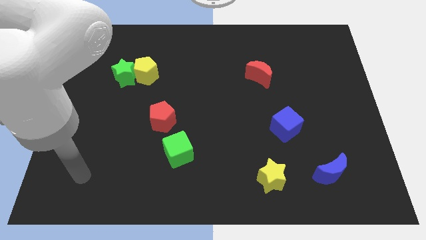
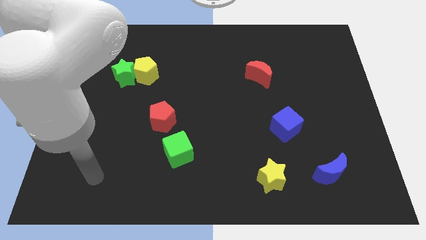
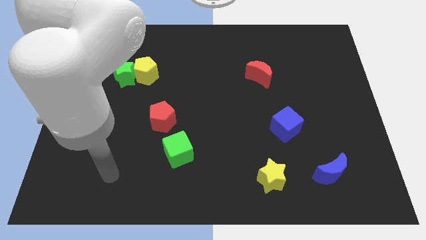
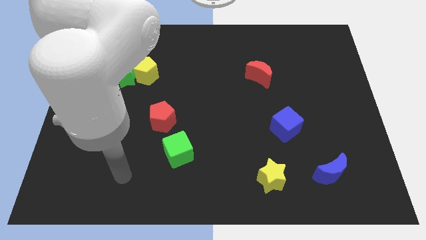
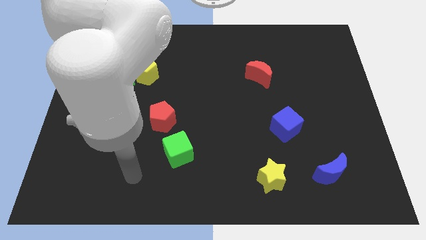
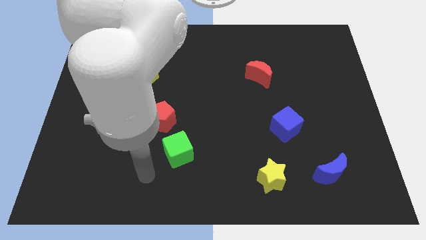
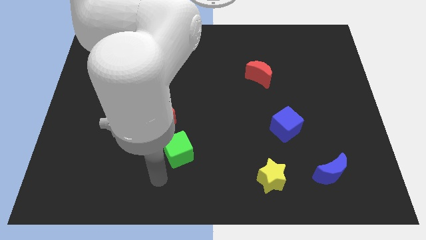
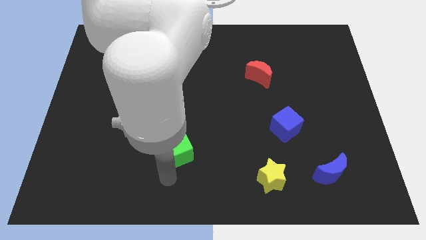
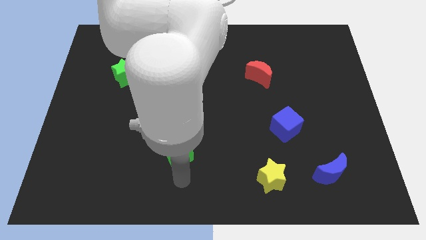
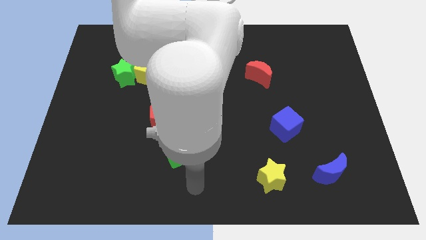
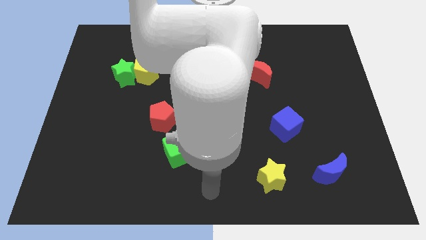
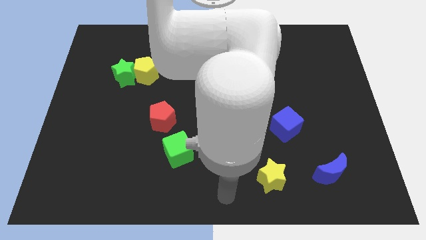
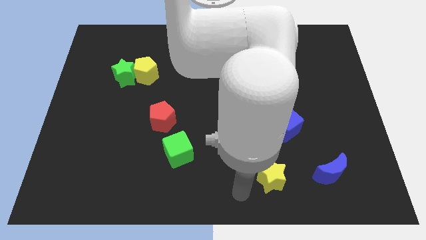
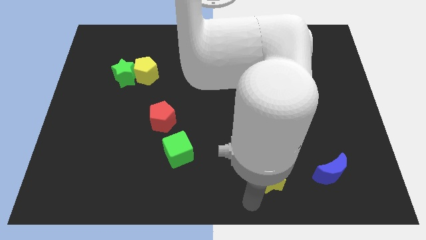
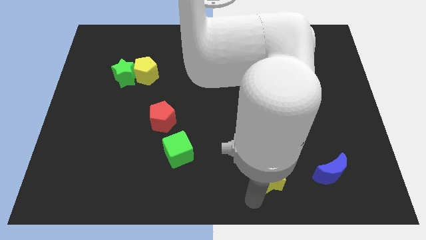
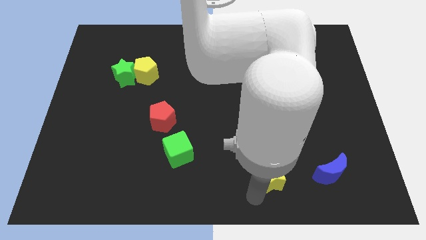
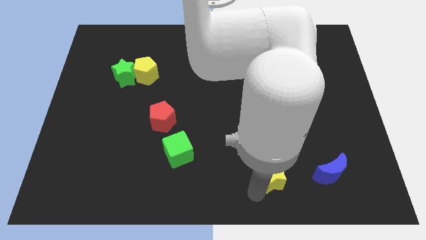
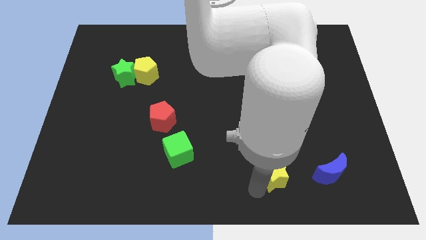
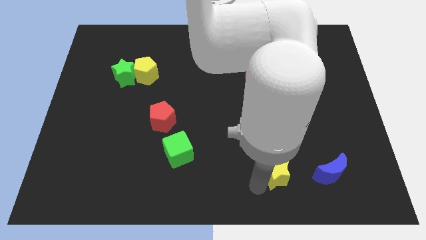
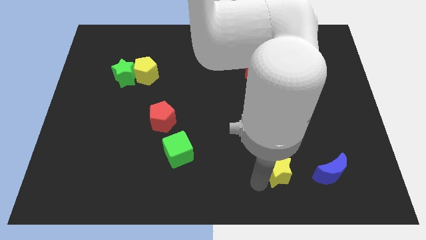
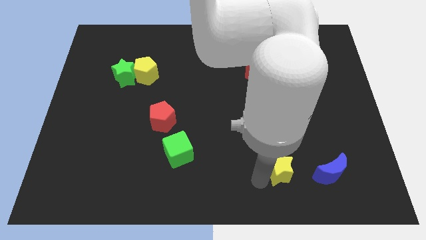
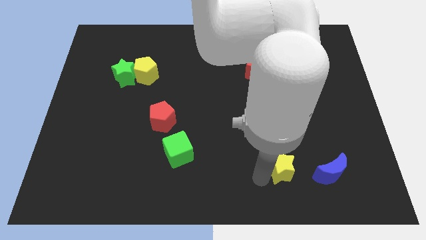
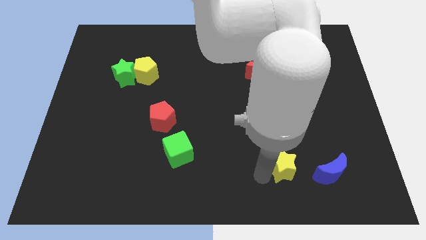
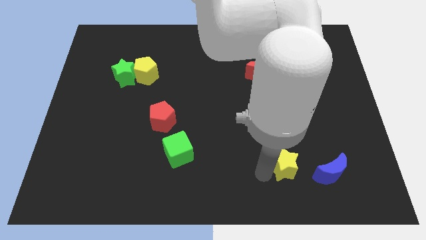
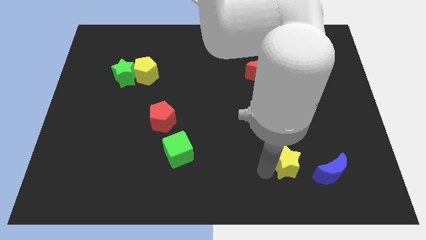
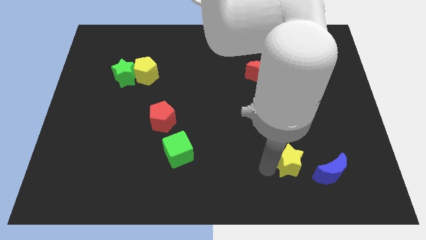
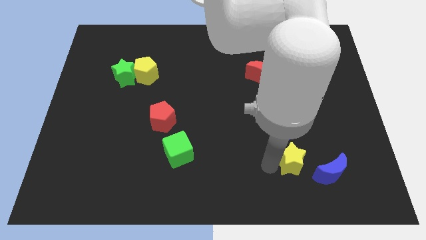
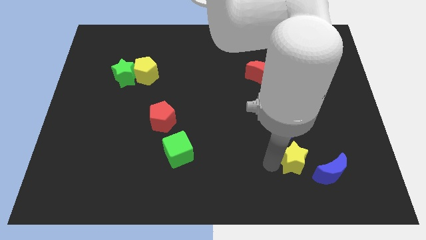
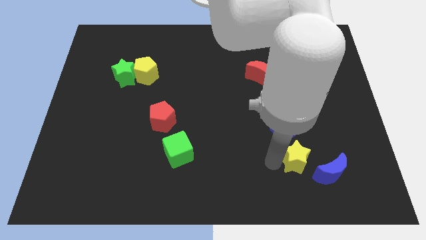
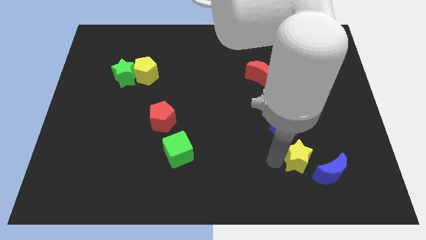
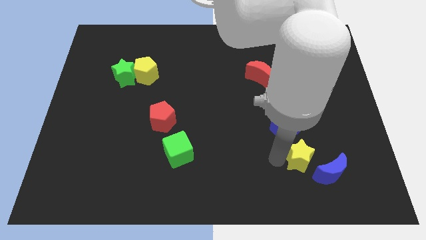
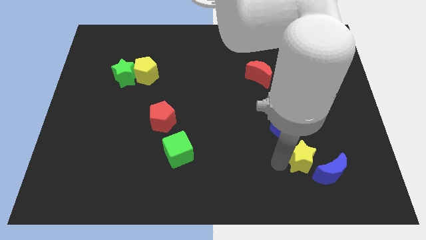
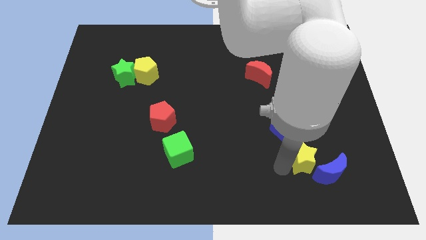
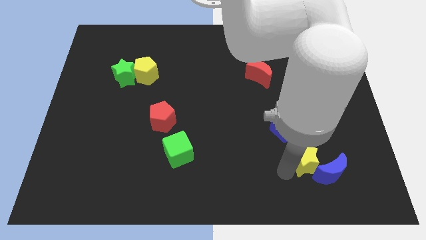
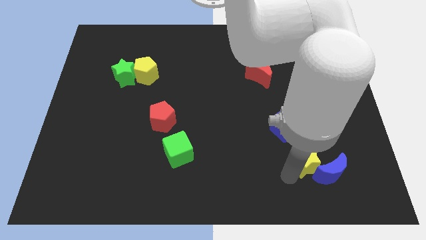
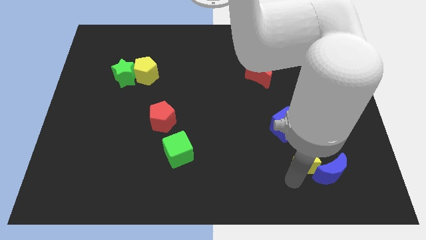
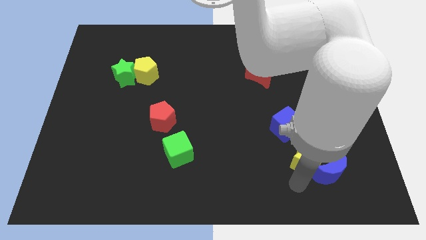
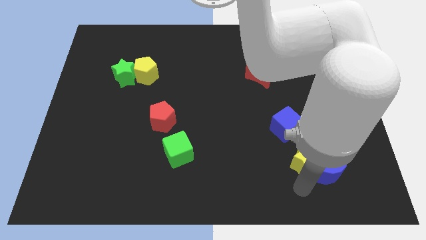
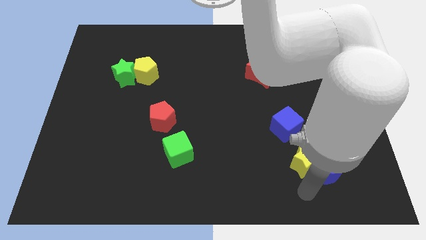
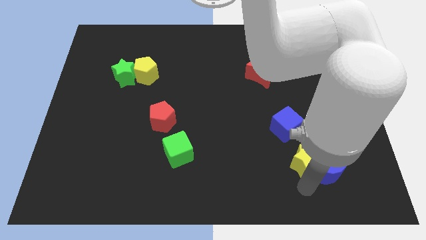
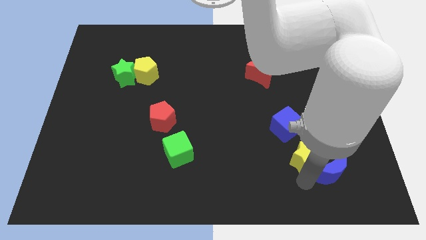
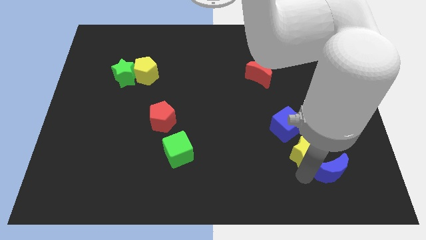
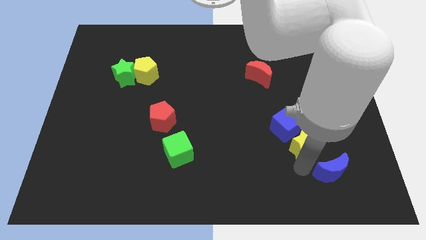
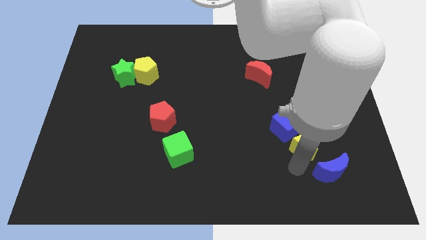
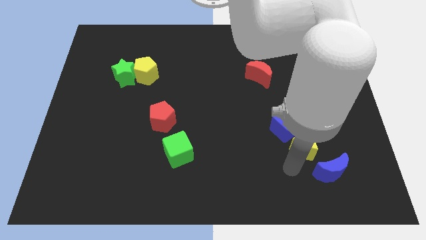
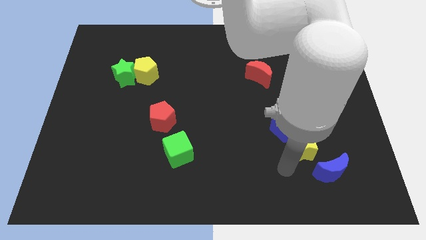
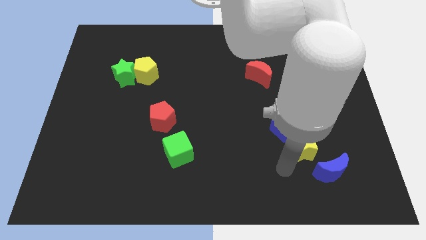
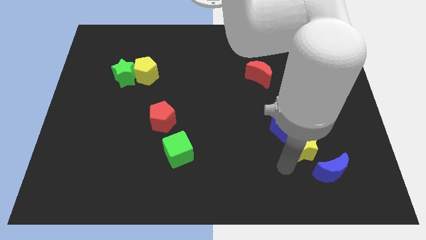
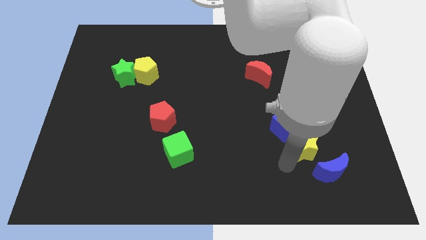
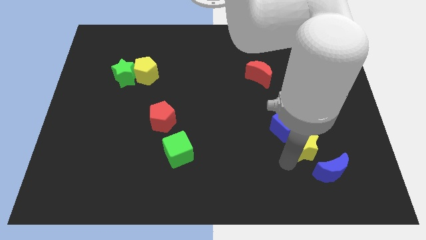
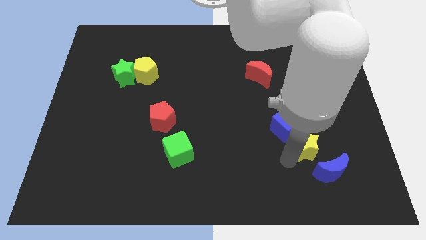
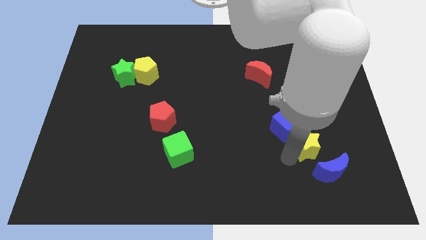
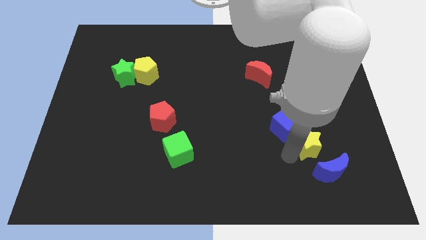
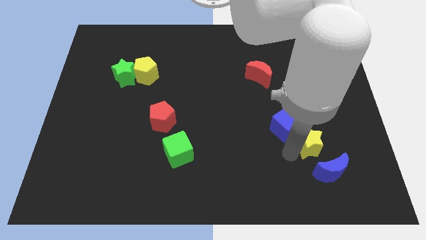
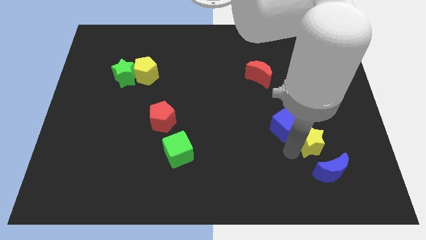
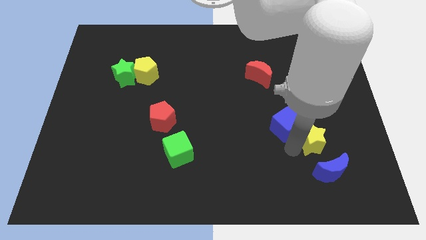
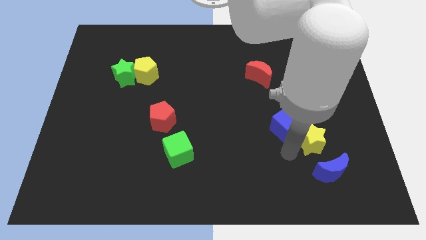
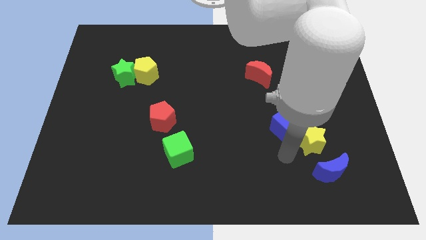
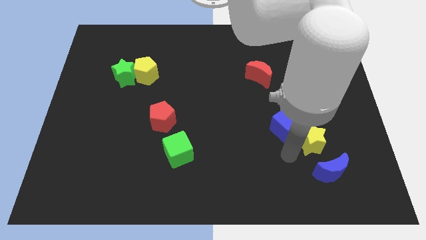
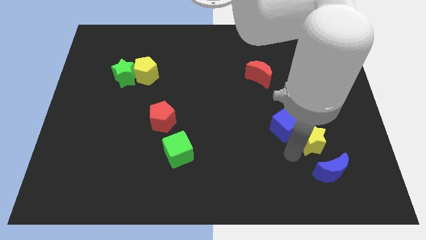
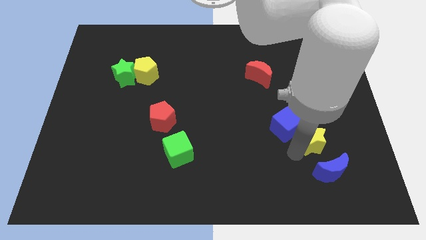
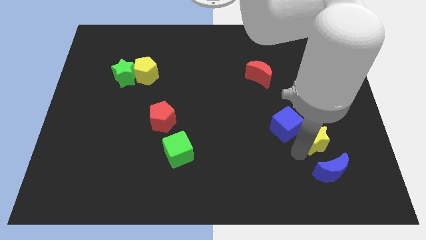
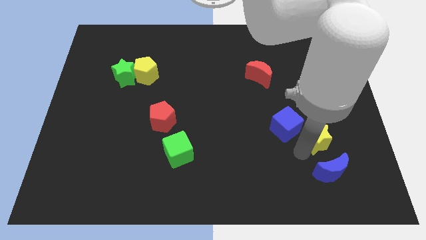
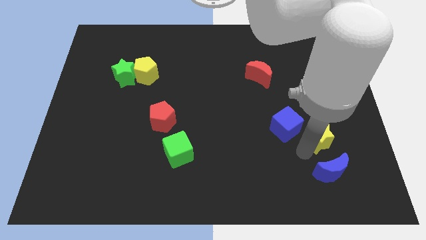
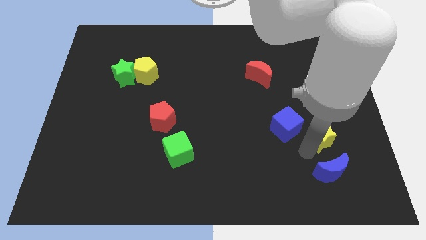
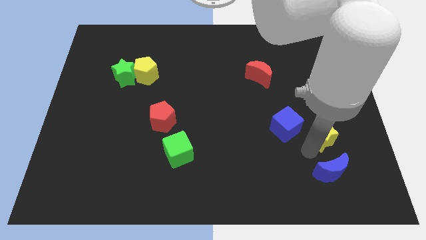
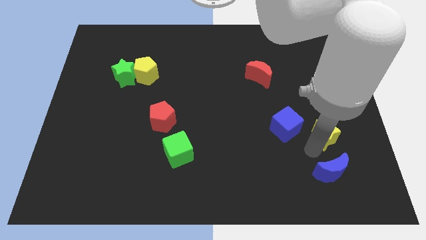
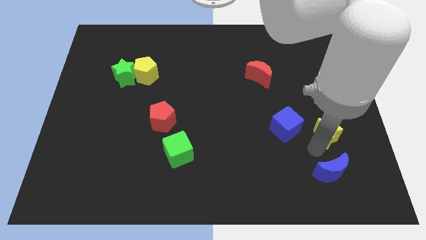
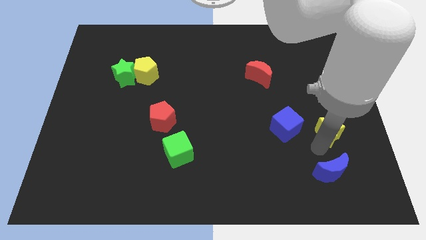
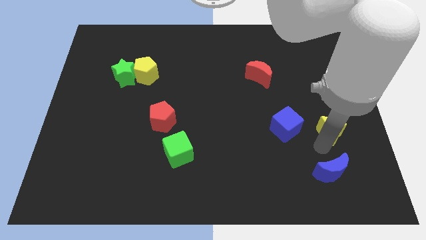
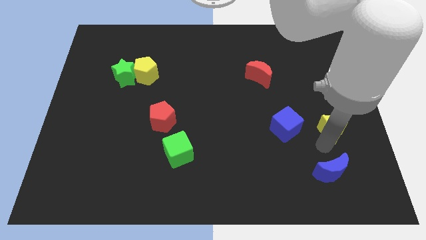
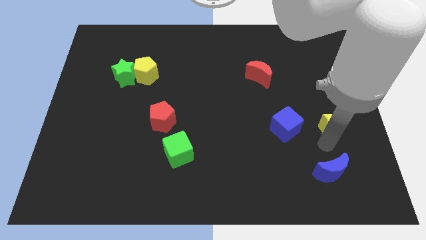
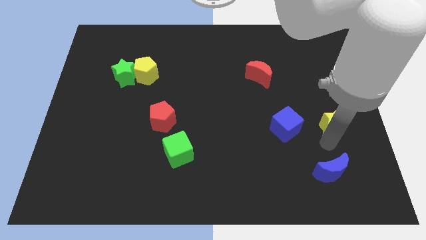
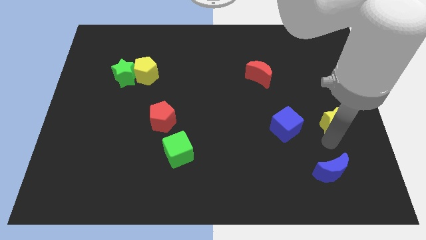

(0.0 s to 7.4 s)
push the yellow star to the center right

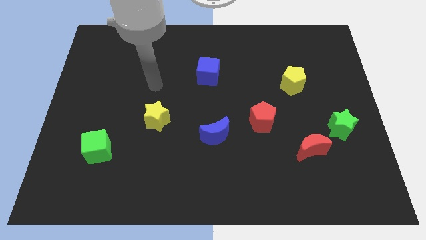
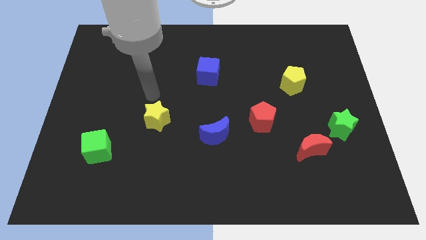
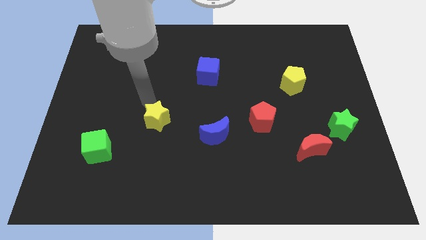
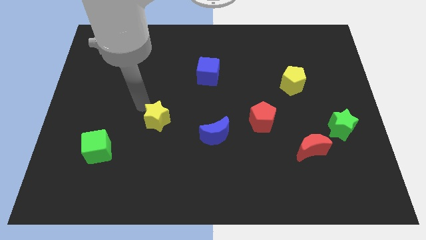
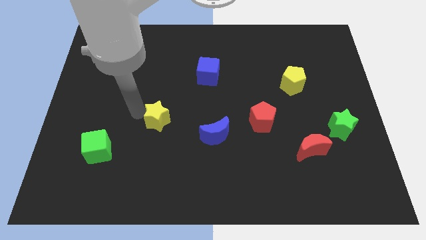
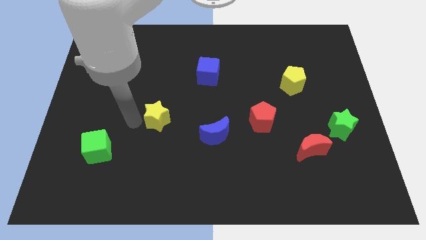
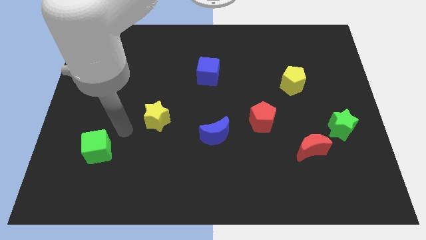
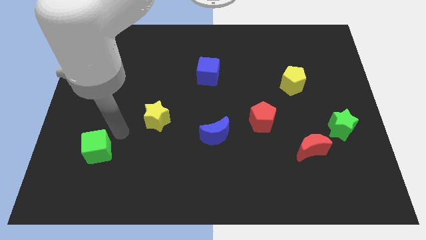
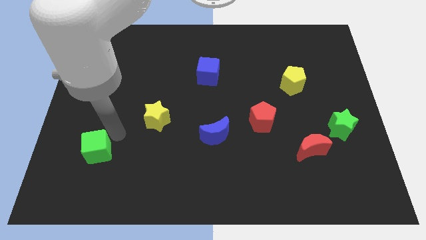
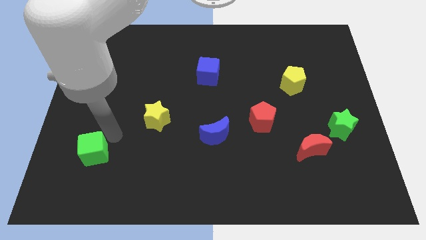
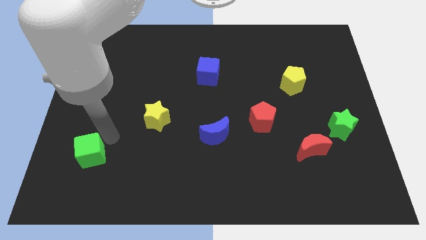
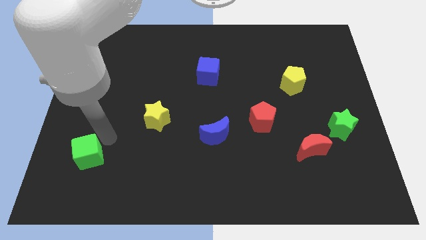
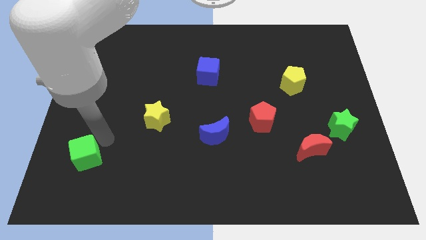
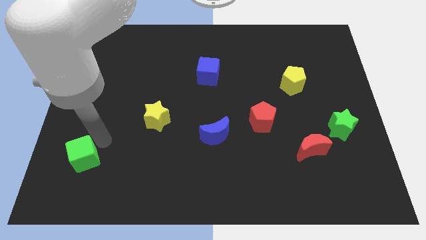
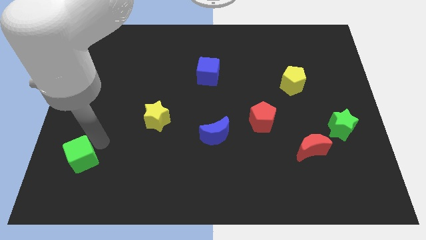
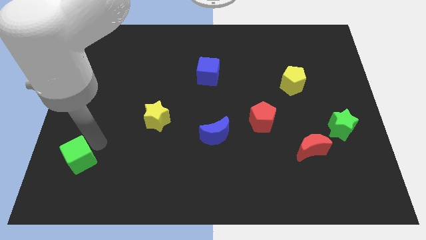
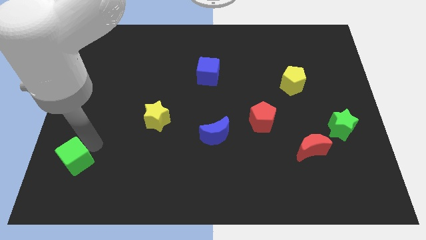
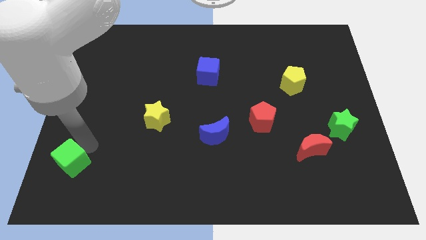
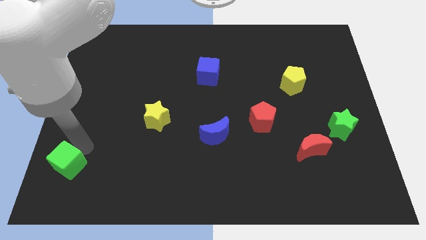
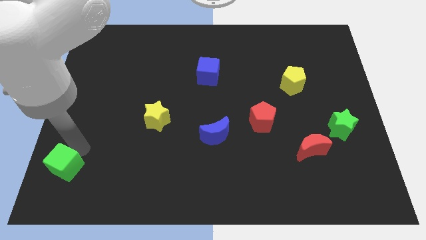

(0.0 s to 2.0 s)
push the green cube to the bottom left of the board
